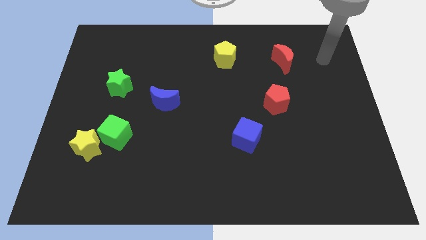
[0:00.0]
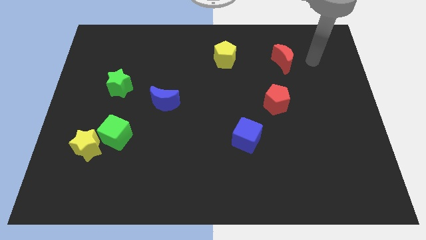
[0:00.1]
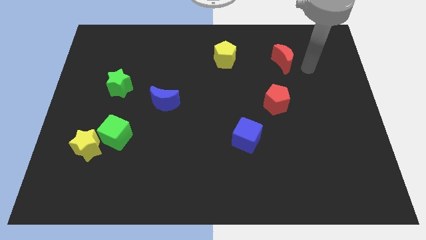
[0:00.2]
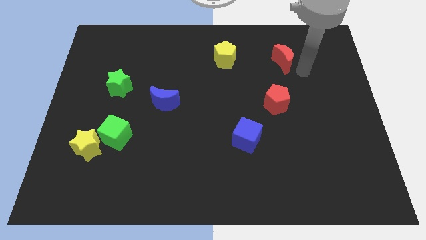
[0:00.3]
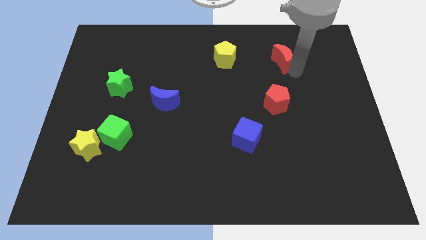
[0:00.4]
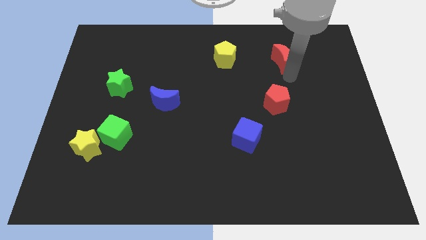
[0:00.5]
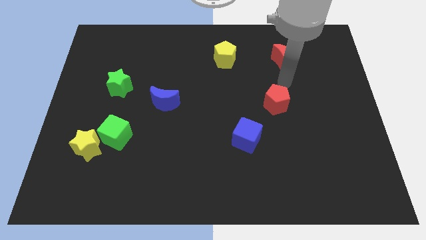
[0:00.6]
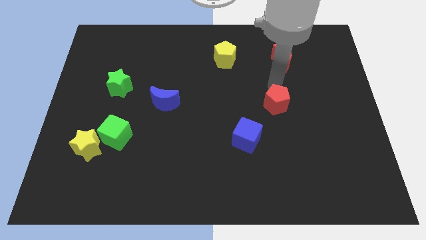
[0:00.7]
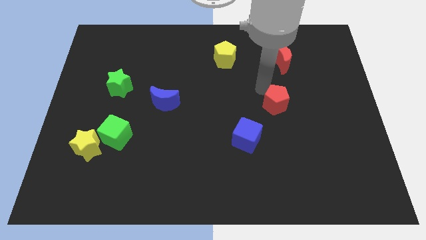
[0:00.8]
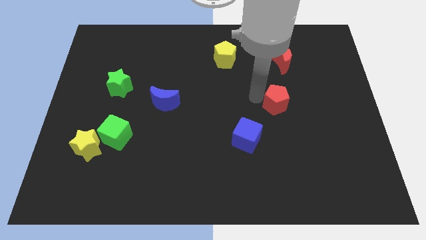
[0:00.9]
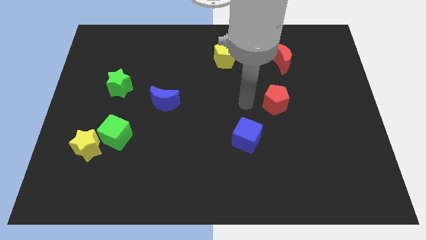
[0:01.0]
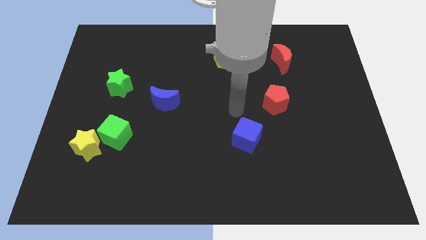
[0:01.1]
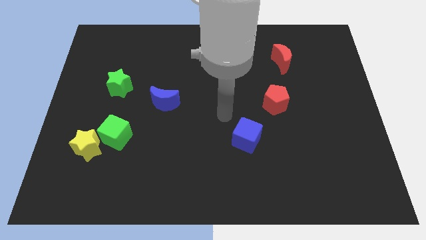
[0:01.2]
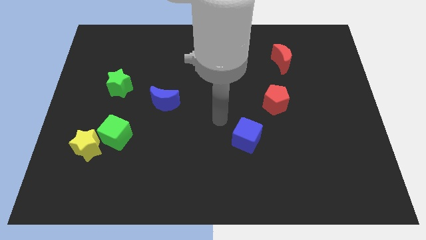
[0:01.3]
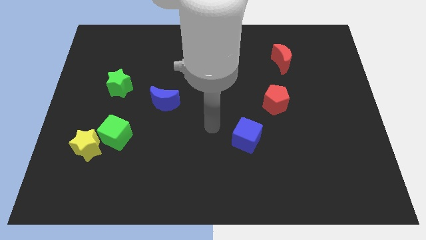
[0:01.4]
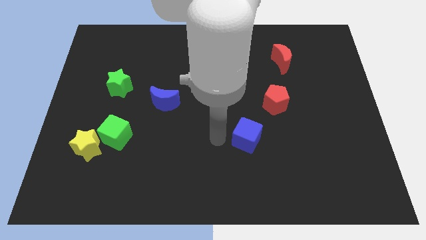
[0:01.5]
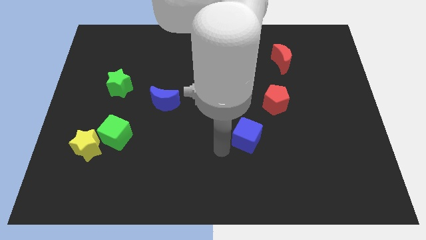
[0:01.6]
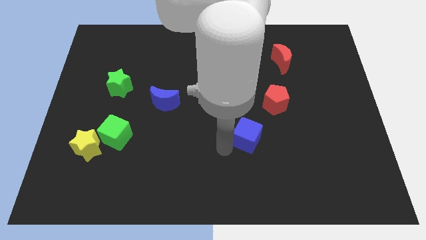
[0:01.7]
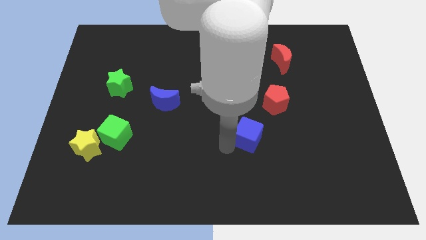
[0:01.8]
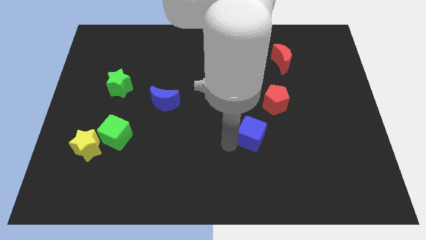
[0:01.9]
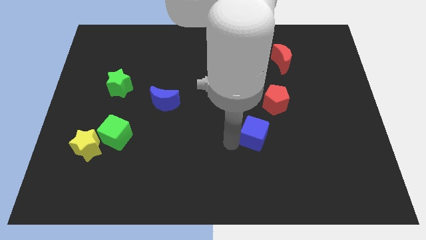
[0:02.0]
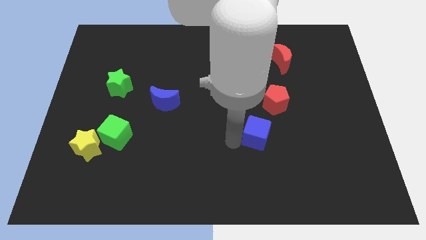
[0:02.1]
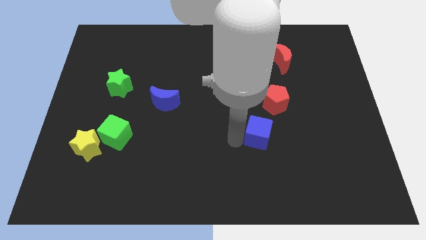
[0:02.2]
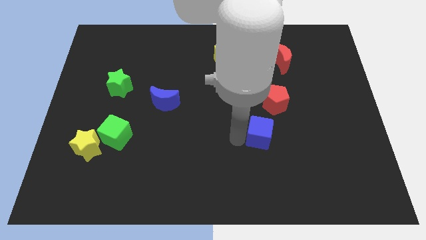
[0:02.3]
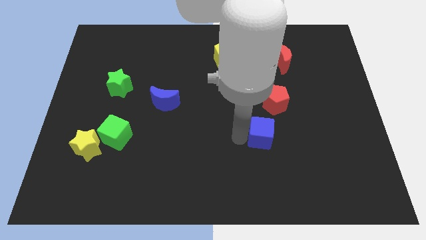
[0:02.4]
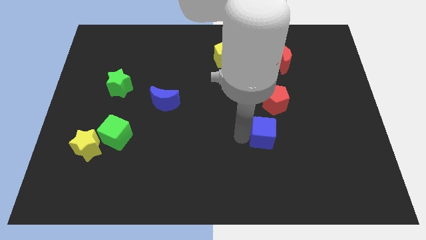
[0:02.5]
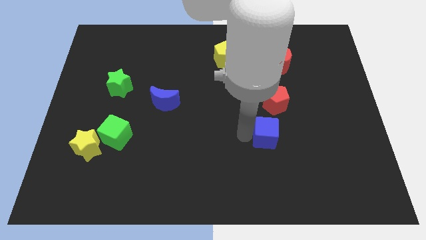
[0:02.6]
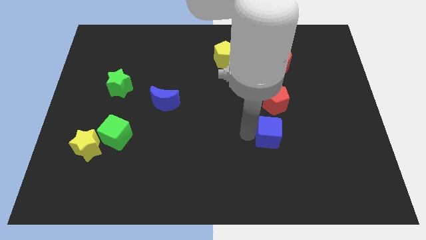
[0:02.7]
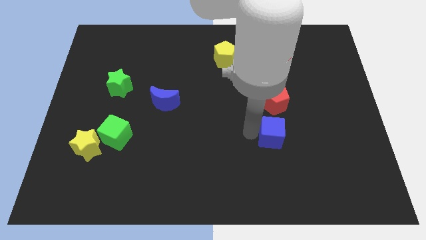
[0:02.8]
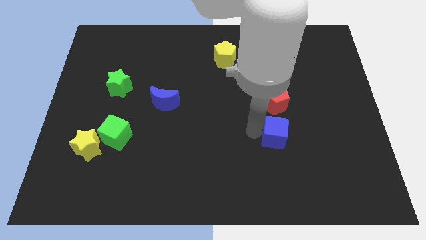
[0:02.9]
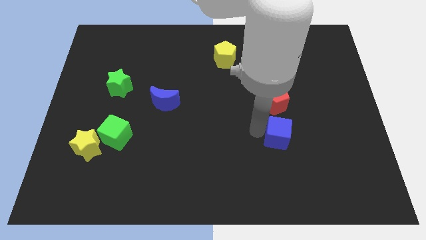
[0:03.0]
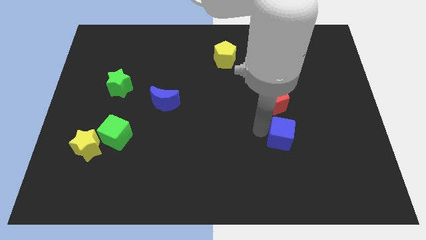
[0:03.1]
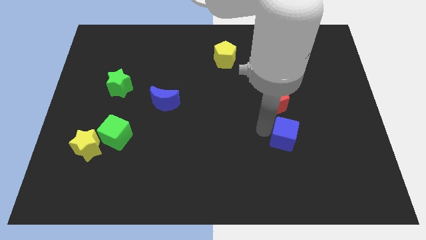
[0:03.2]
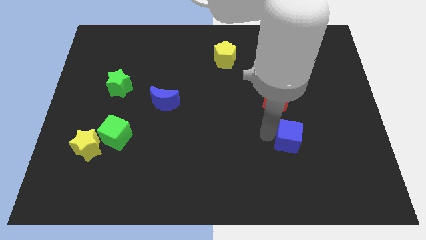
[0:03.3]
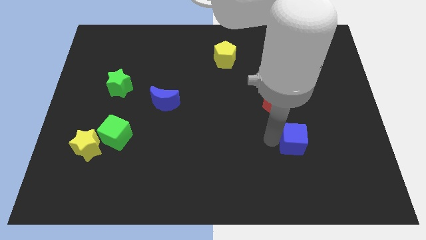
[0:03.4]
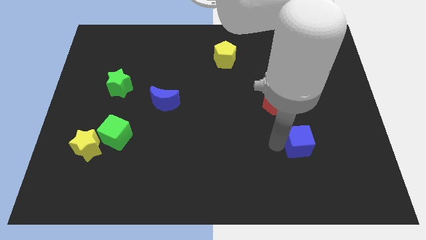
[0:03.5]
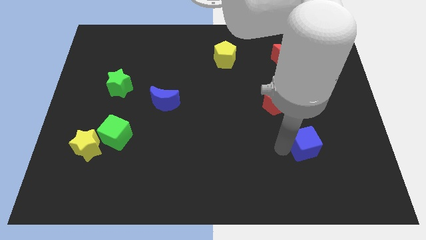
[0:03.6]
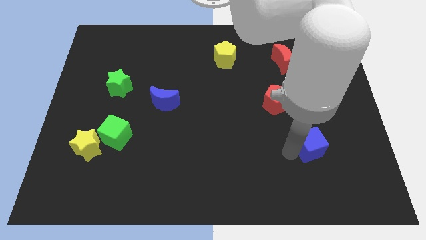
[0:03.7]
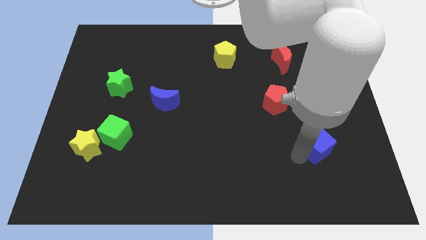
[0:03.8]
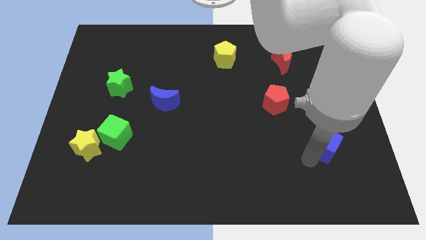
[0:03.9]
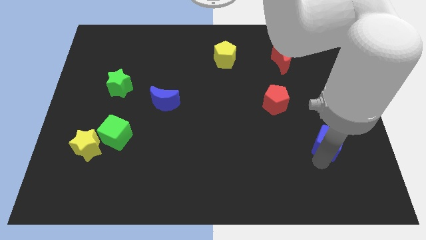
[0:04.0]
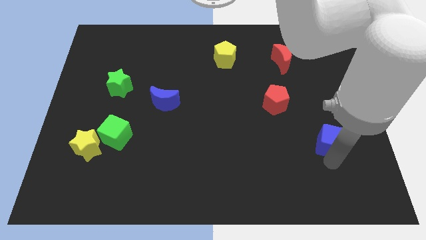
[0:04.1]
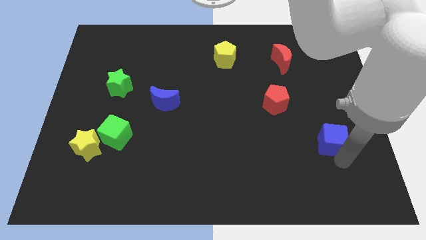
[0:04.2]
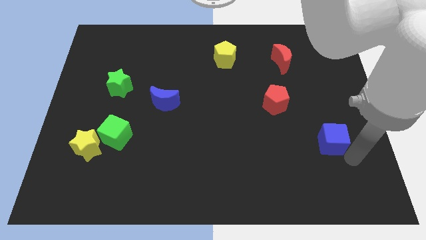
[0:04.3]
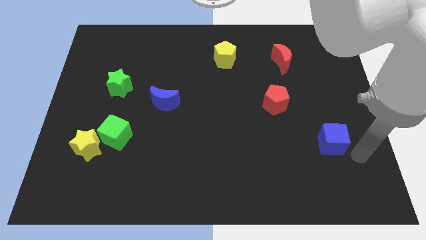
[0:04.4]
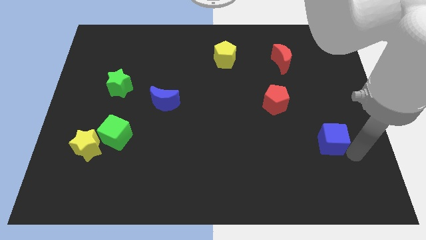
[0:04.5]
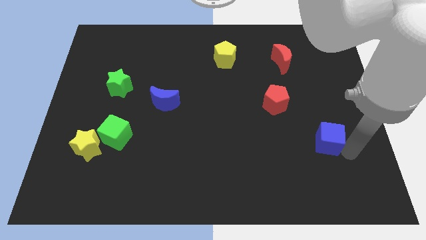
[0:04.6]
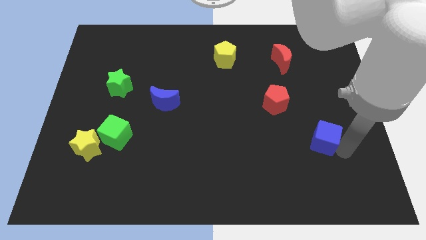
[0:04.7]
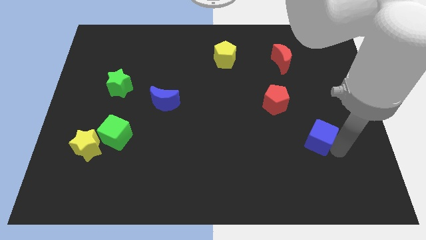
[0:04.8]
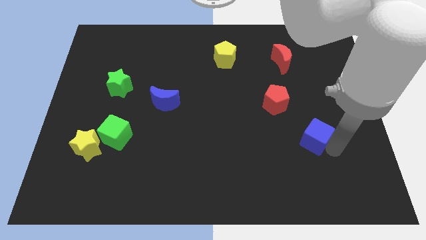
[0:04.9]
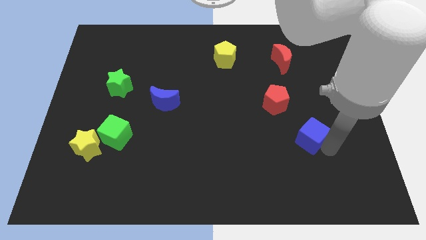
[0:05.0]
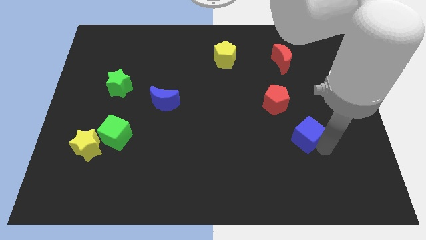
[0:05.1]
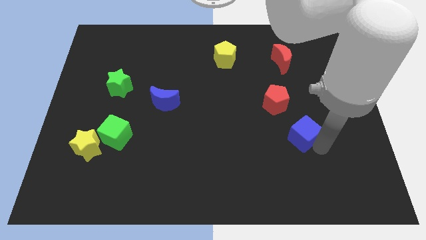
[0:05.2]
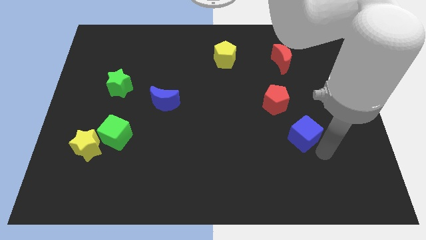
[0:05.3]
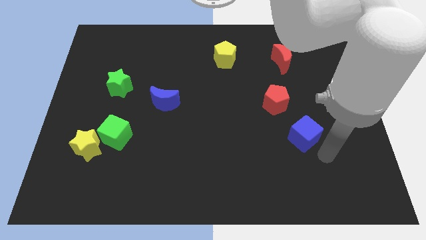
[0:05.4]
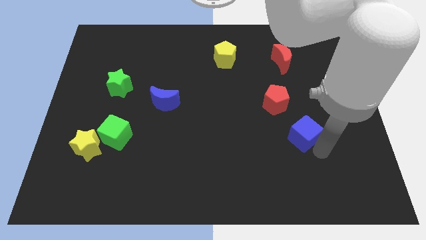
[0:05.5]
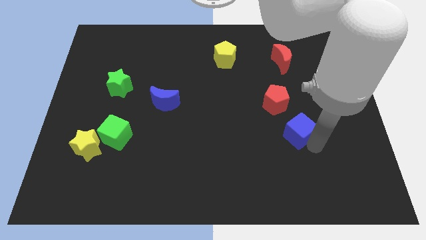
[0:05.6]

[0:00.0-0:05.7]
slightly push the blue cube up and then right

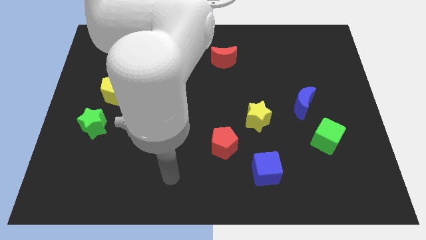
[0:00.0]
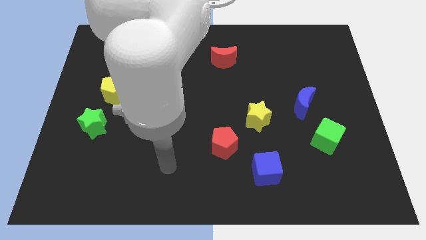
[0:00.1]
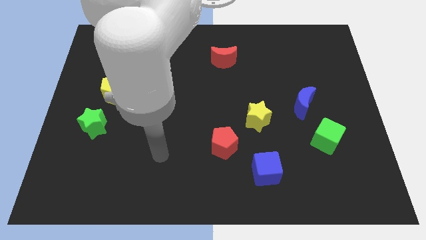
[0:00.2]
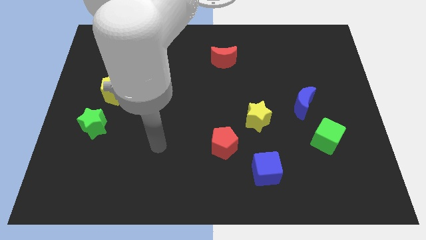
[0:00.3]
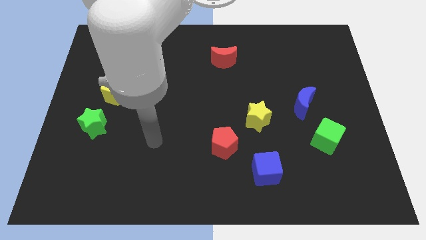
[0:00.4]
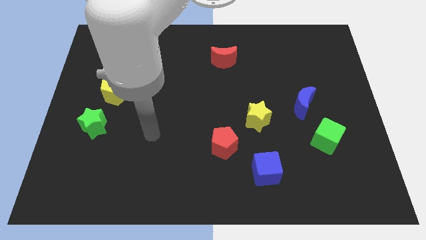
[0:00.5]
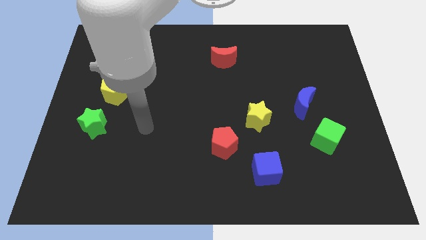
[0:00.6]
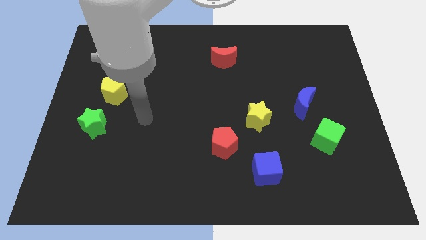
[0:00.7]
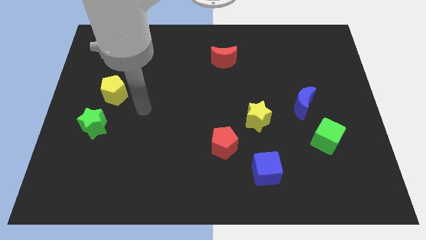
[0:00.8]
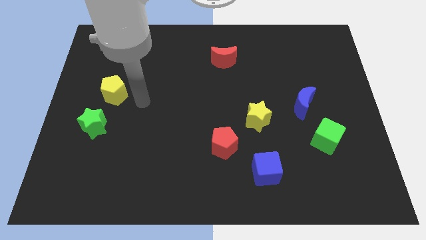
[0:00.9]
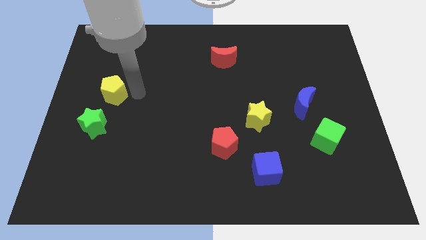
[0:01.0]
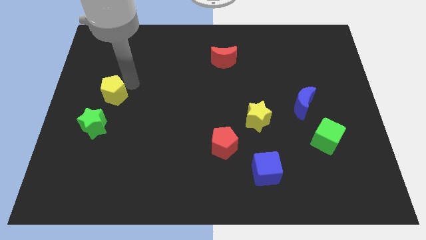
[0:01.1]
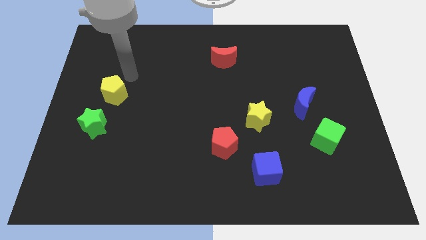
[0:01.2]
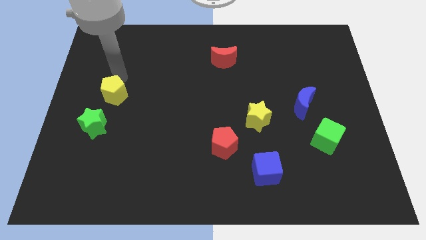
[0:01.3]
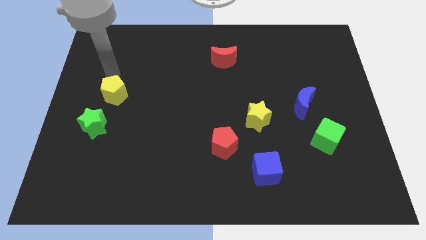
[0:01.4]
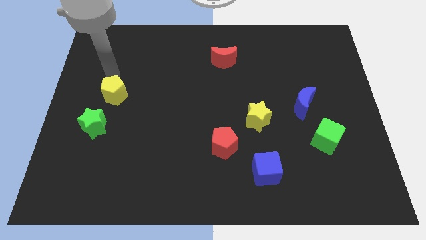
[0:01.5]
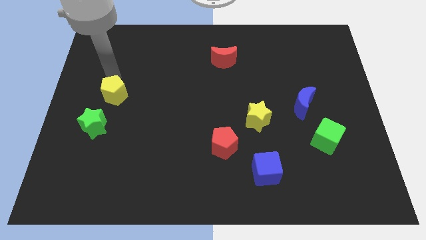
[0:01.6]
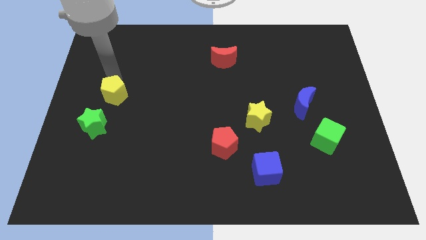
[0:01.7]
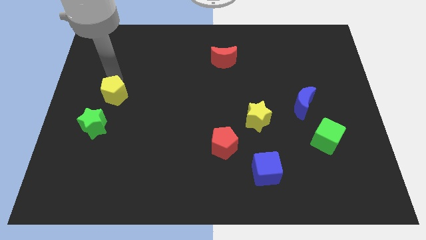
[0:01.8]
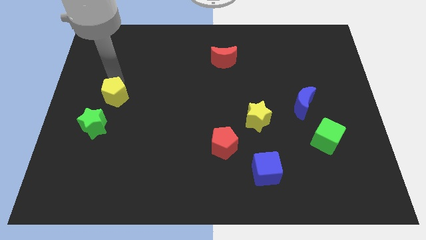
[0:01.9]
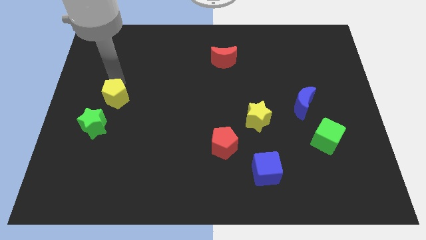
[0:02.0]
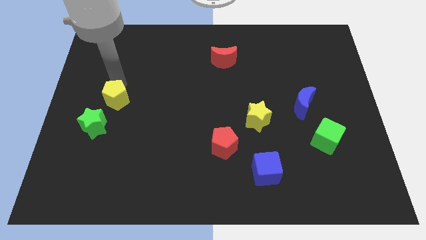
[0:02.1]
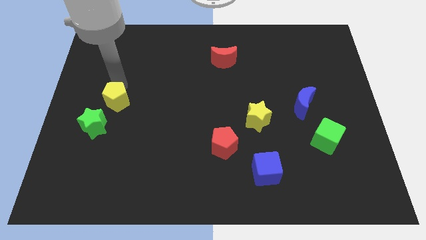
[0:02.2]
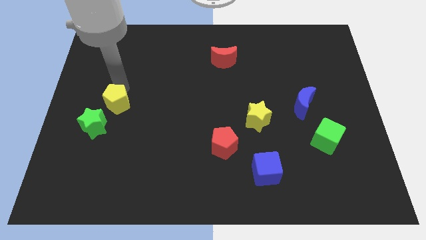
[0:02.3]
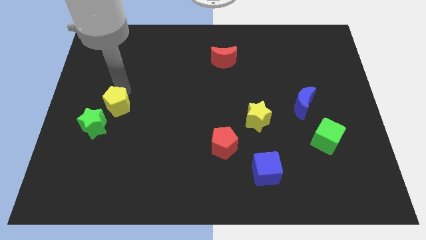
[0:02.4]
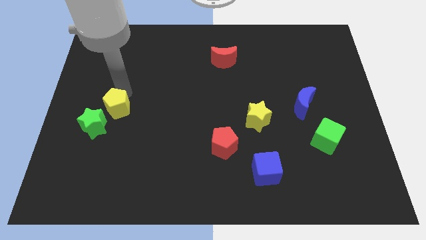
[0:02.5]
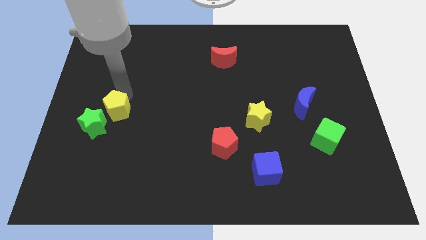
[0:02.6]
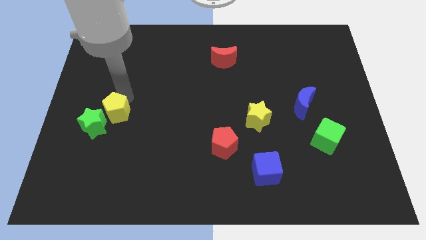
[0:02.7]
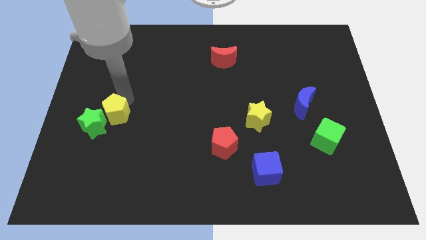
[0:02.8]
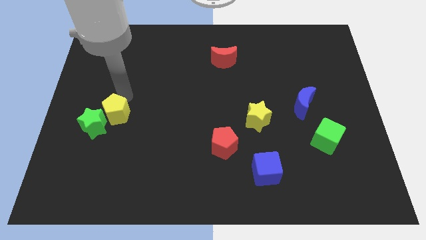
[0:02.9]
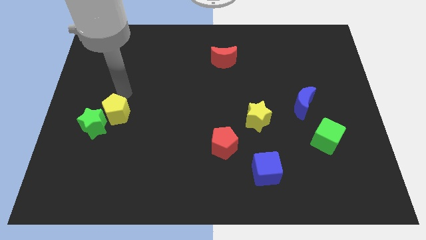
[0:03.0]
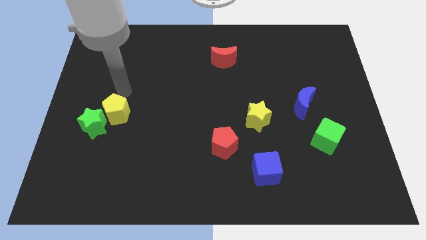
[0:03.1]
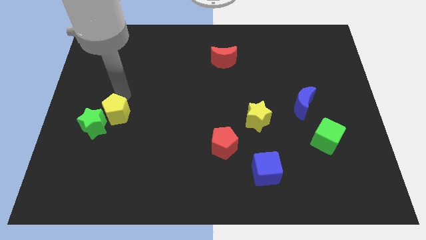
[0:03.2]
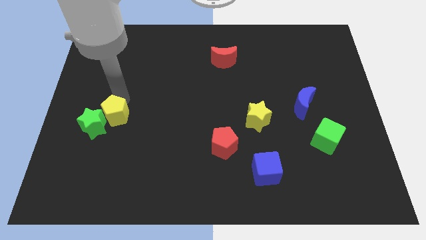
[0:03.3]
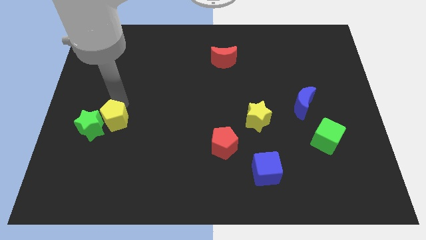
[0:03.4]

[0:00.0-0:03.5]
slightly slide the yellow pentagon downwards
